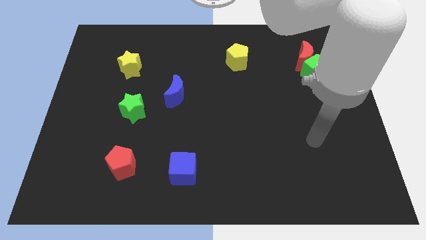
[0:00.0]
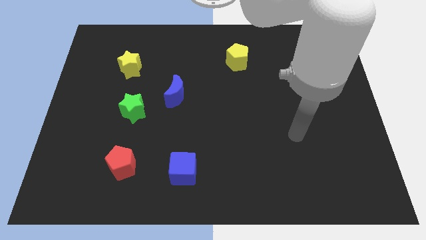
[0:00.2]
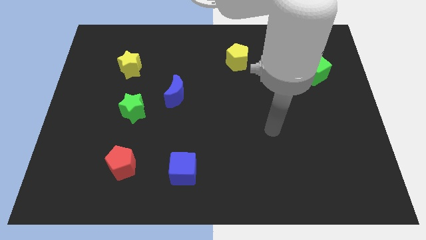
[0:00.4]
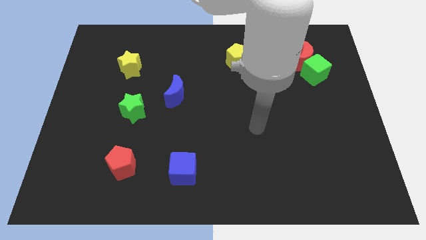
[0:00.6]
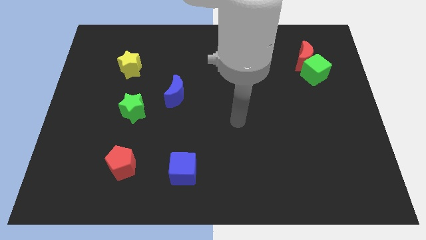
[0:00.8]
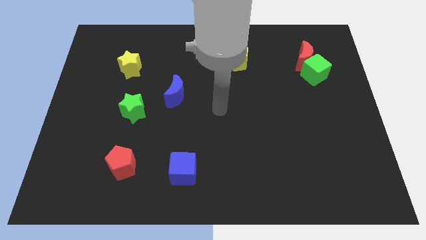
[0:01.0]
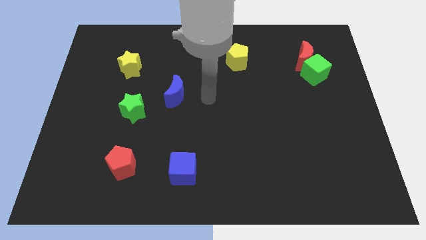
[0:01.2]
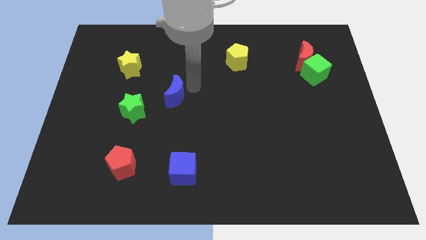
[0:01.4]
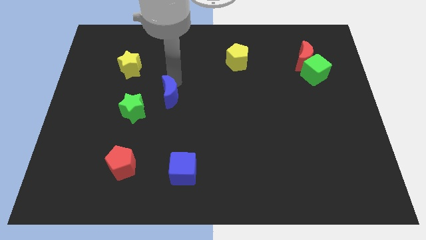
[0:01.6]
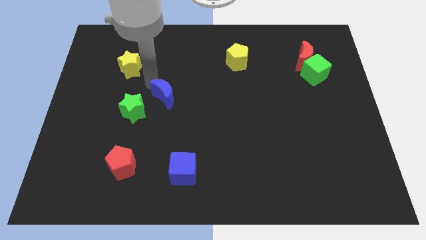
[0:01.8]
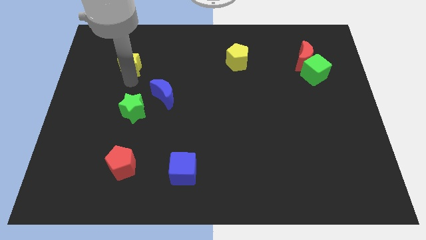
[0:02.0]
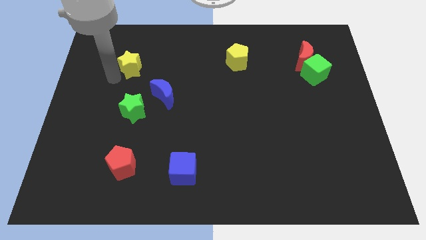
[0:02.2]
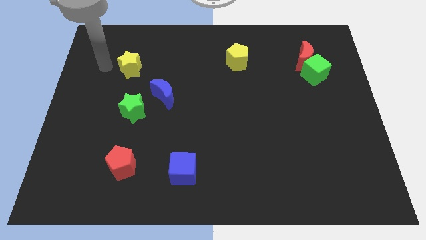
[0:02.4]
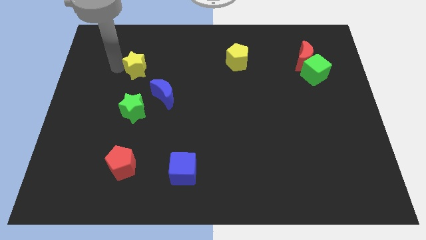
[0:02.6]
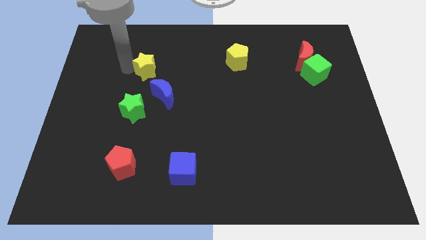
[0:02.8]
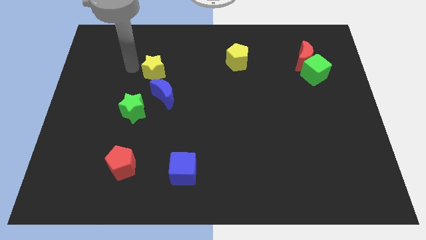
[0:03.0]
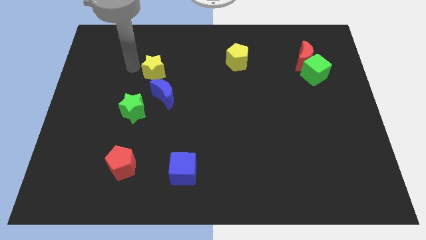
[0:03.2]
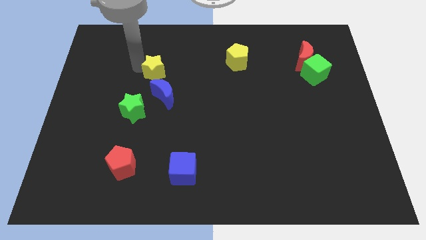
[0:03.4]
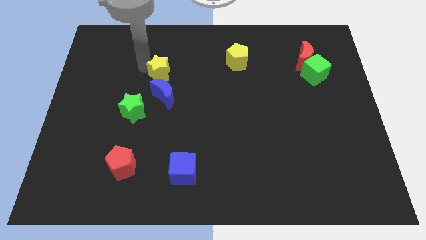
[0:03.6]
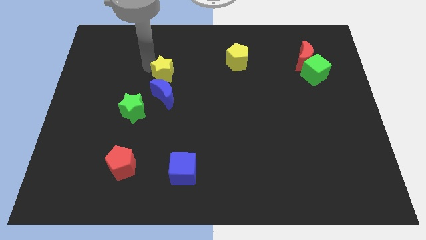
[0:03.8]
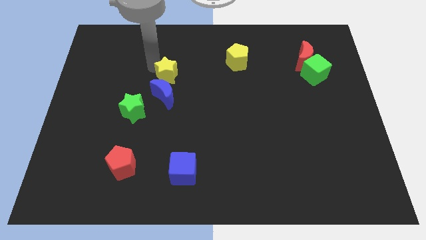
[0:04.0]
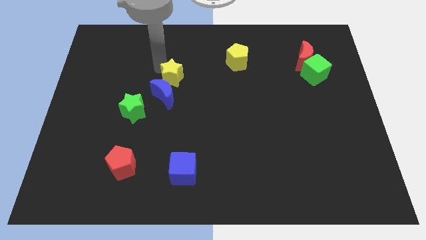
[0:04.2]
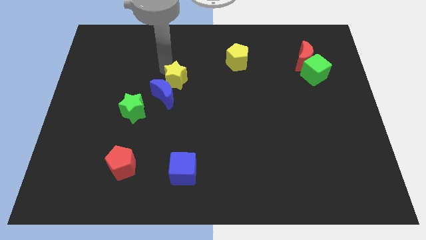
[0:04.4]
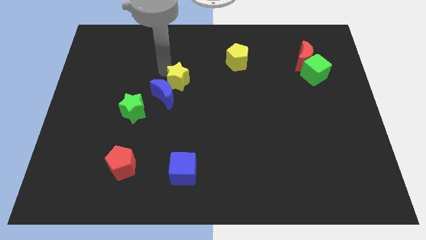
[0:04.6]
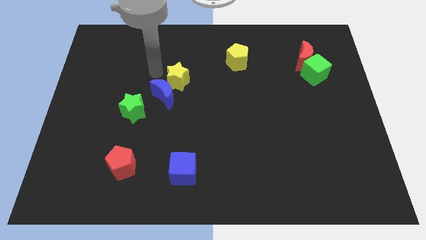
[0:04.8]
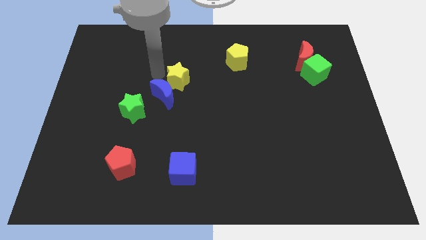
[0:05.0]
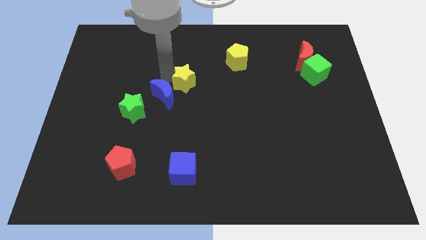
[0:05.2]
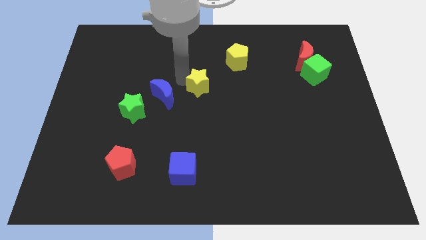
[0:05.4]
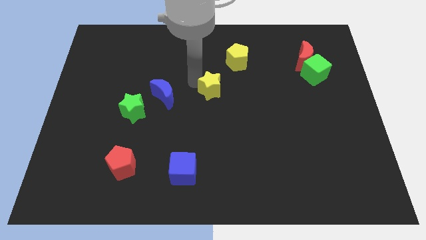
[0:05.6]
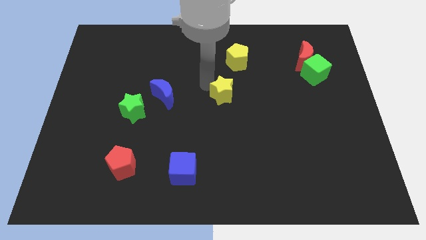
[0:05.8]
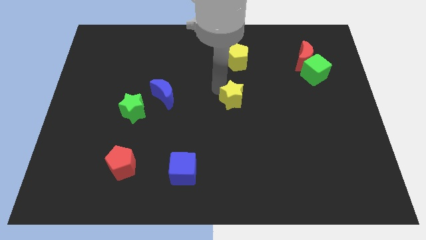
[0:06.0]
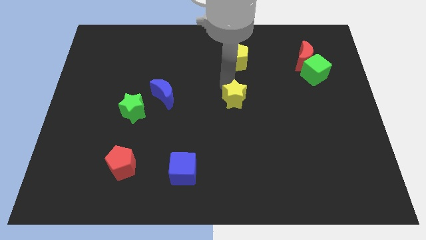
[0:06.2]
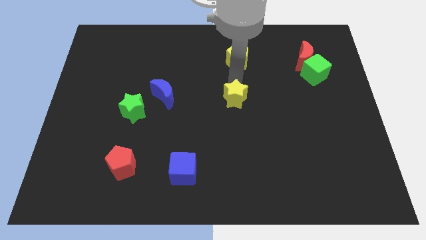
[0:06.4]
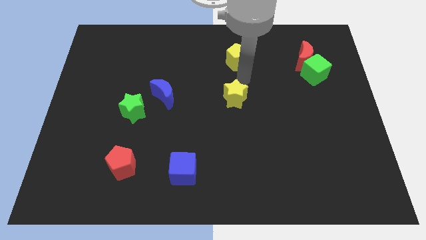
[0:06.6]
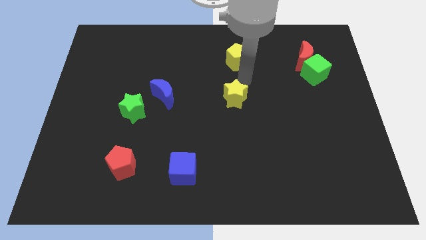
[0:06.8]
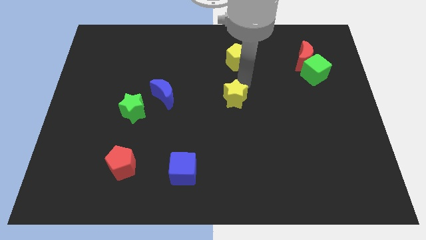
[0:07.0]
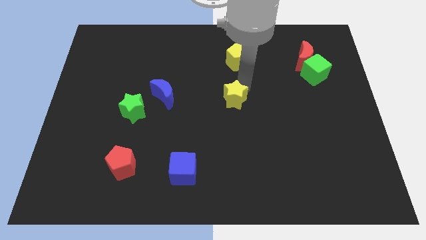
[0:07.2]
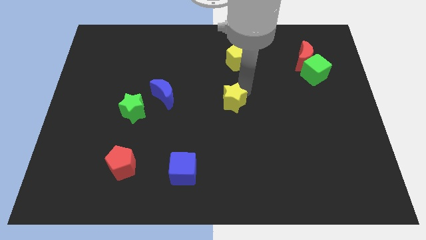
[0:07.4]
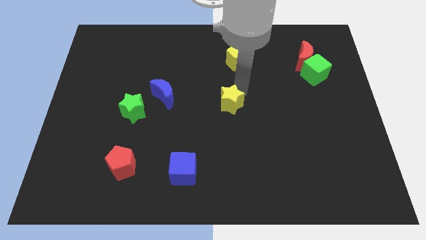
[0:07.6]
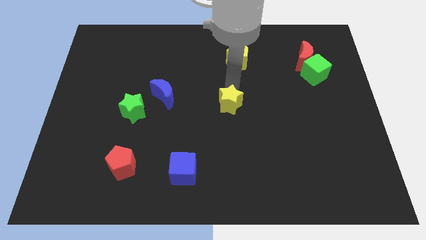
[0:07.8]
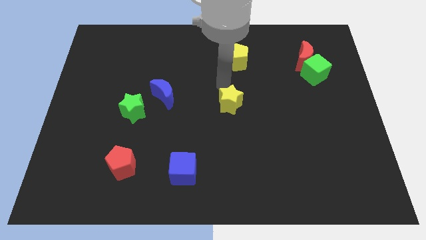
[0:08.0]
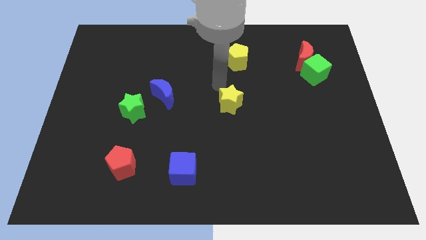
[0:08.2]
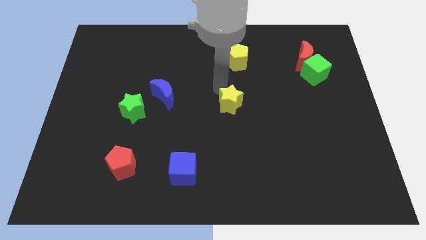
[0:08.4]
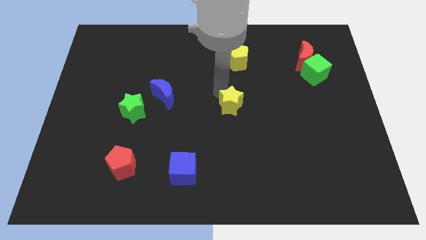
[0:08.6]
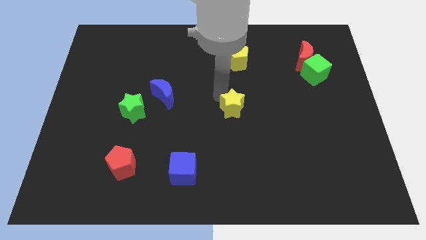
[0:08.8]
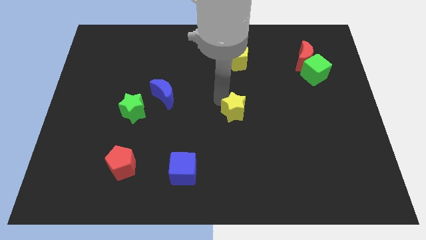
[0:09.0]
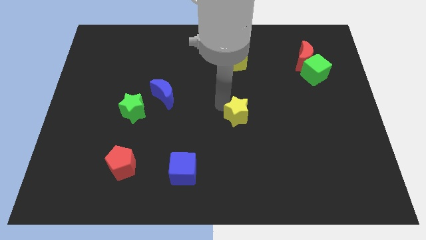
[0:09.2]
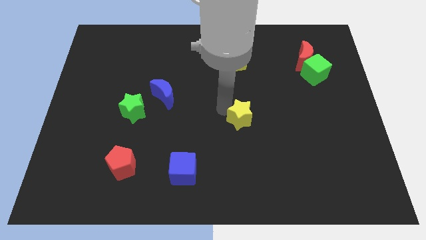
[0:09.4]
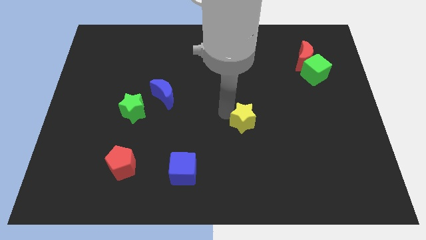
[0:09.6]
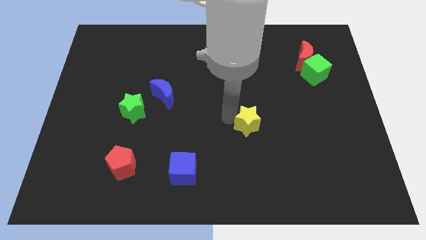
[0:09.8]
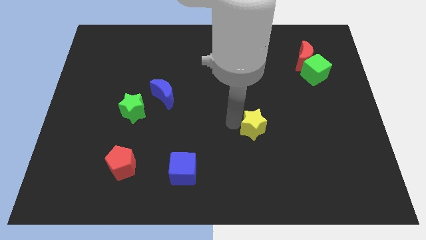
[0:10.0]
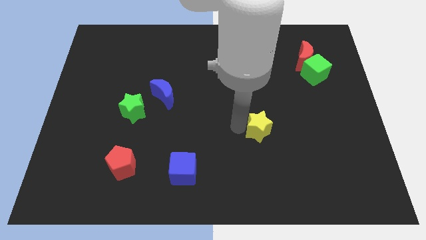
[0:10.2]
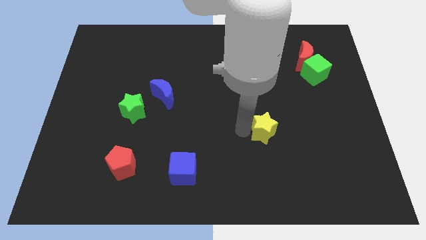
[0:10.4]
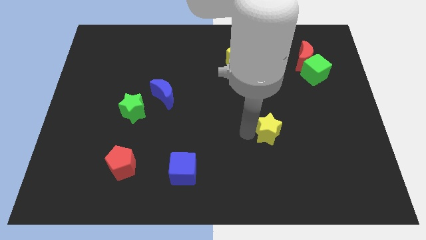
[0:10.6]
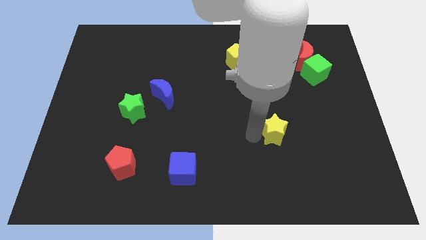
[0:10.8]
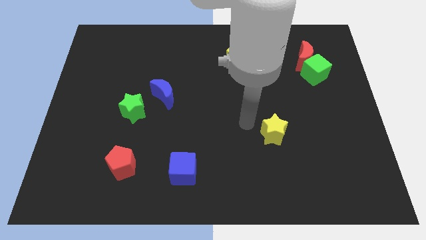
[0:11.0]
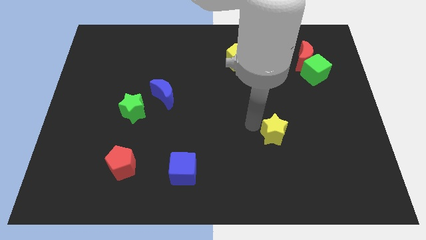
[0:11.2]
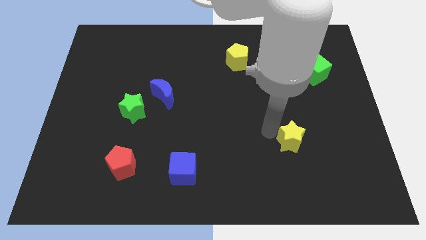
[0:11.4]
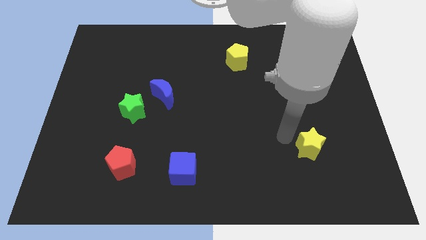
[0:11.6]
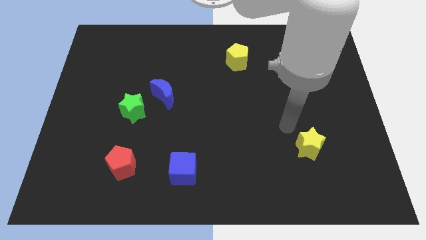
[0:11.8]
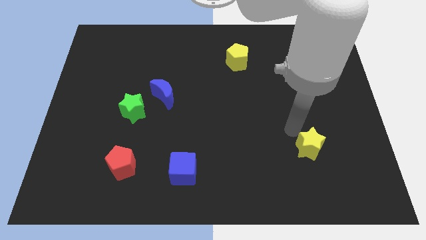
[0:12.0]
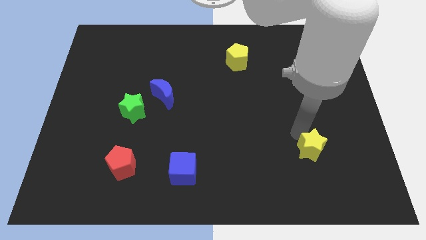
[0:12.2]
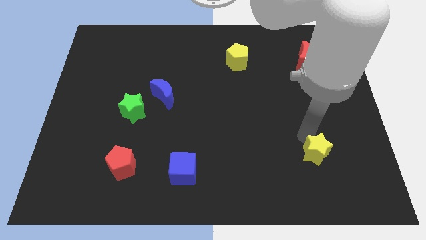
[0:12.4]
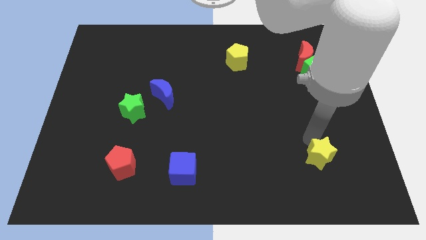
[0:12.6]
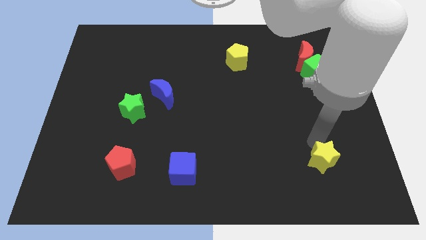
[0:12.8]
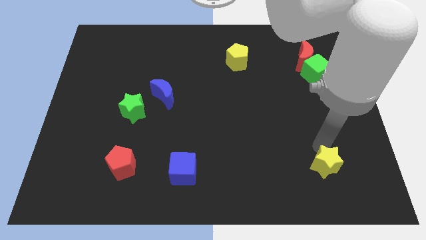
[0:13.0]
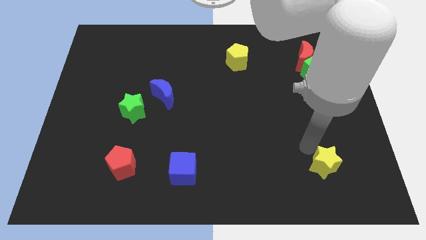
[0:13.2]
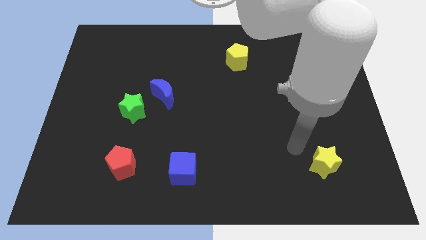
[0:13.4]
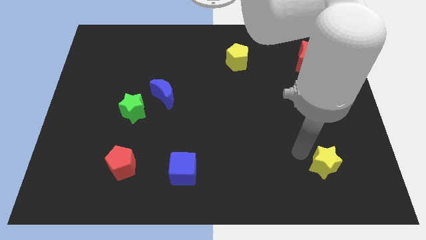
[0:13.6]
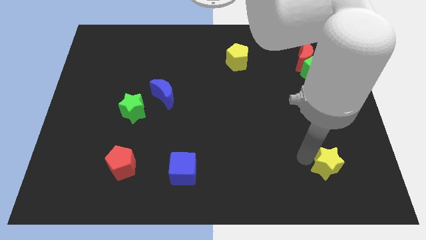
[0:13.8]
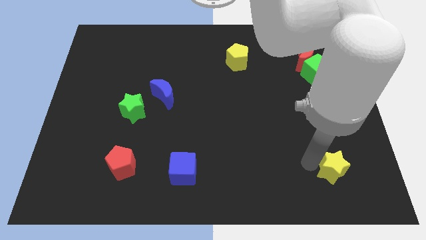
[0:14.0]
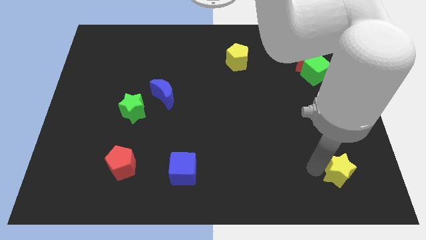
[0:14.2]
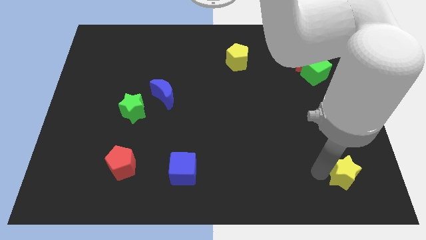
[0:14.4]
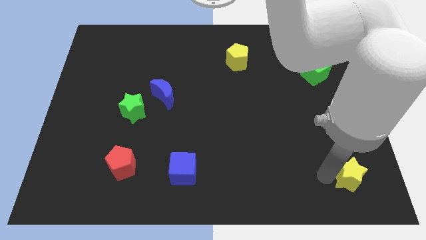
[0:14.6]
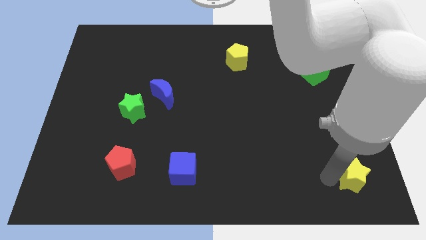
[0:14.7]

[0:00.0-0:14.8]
push the yellow star to the bottom right of the board
